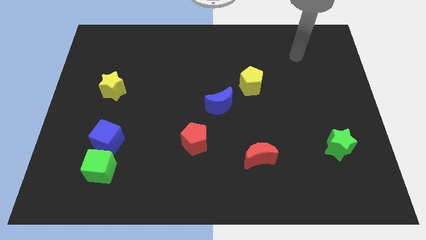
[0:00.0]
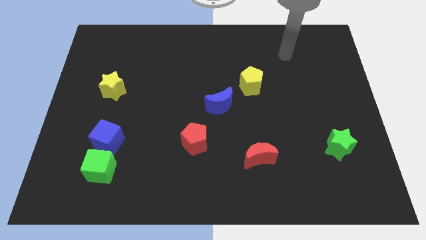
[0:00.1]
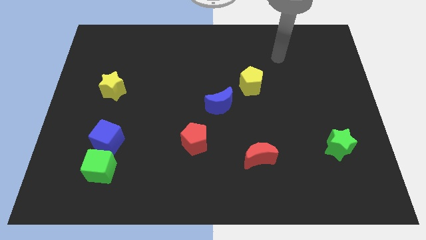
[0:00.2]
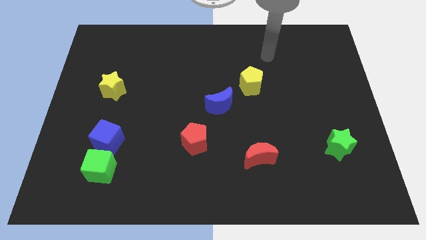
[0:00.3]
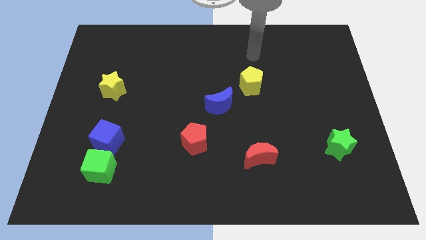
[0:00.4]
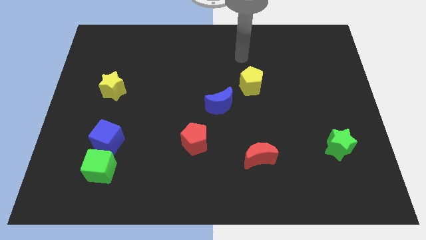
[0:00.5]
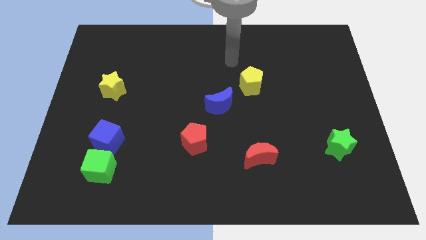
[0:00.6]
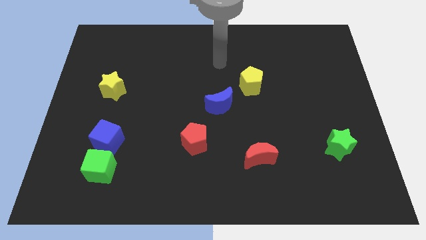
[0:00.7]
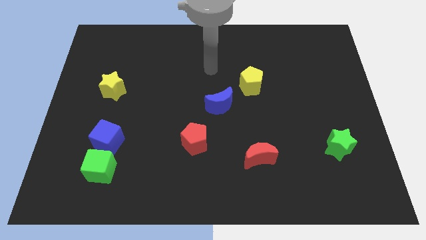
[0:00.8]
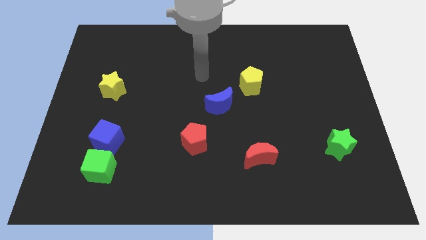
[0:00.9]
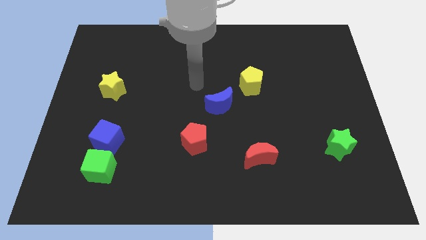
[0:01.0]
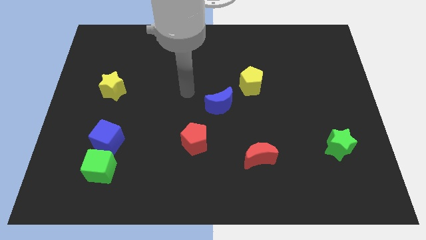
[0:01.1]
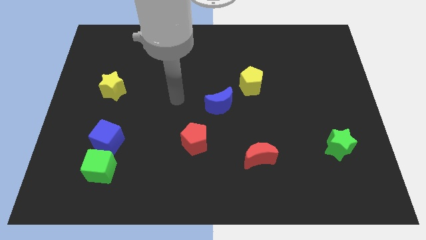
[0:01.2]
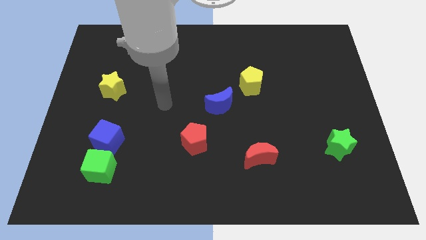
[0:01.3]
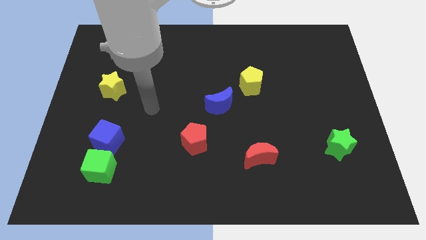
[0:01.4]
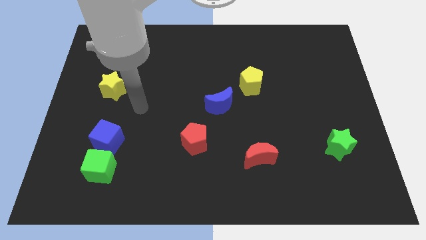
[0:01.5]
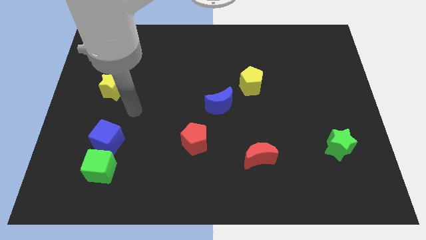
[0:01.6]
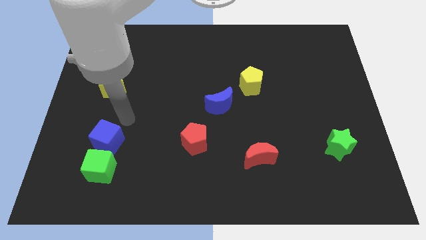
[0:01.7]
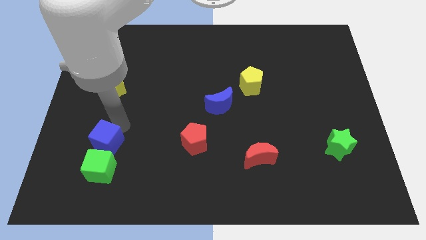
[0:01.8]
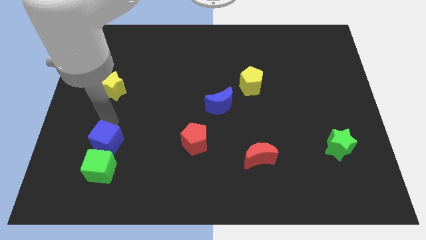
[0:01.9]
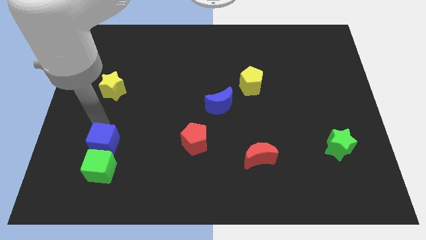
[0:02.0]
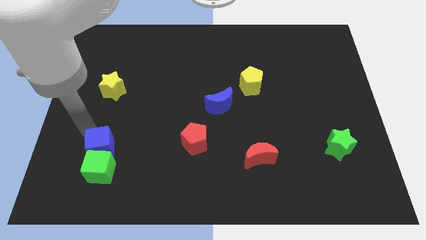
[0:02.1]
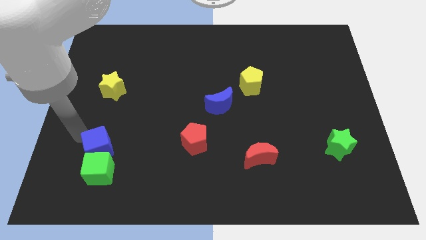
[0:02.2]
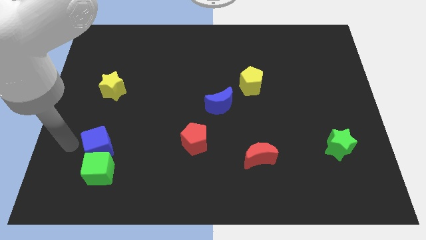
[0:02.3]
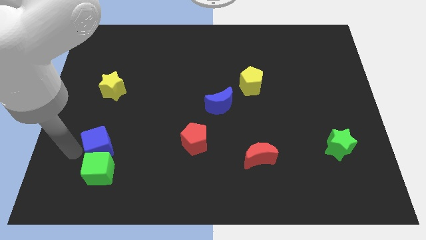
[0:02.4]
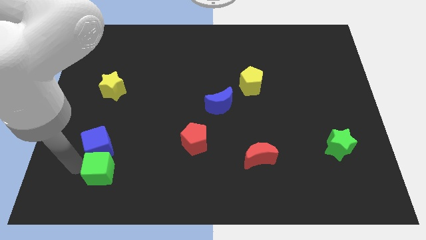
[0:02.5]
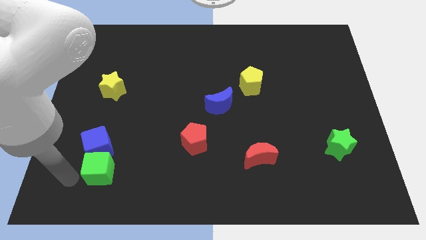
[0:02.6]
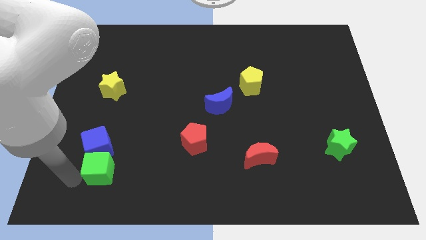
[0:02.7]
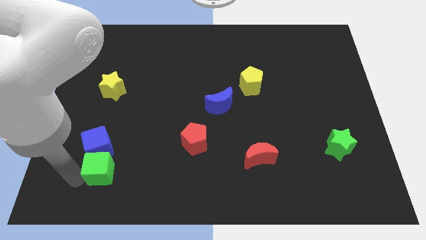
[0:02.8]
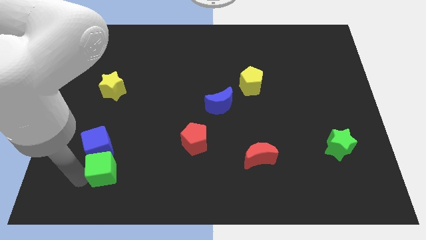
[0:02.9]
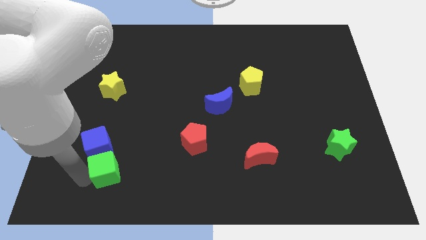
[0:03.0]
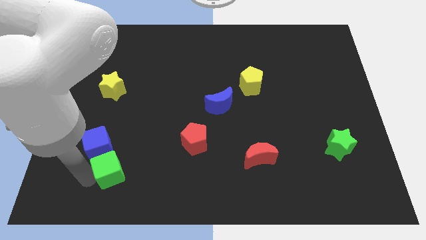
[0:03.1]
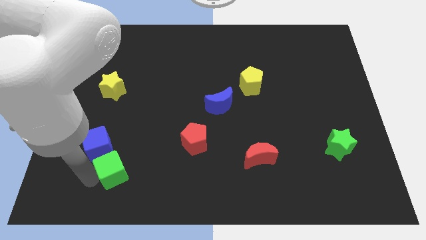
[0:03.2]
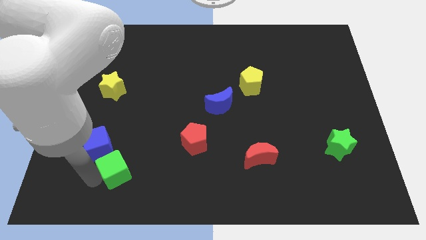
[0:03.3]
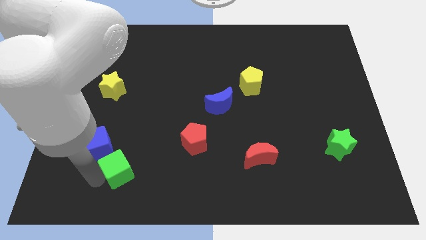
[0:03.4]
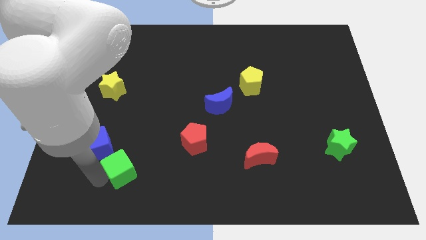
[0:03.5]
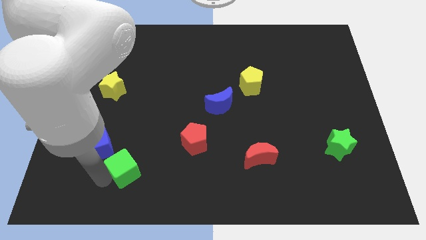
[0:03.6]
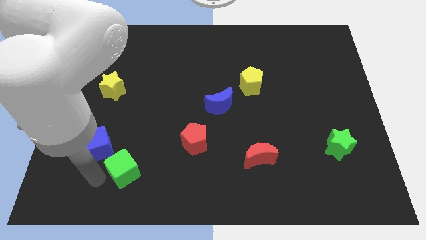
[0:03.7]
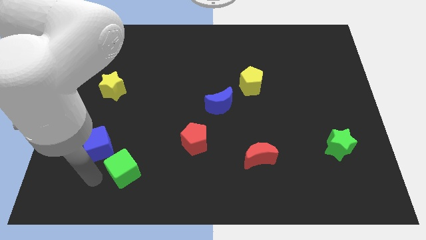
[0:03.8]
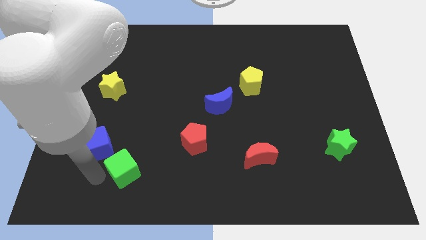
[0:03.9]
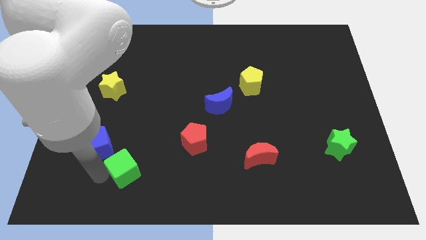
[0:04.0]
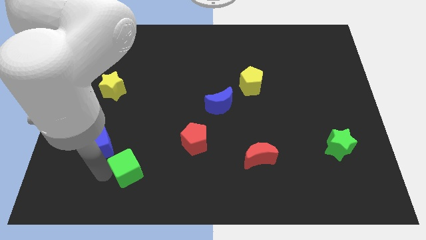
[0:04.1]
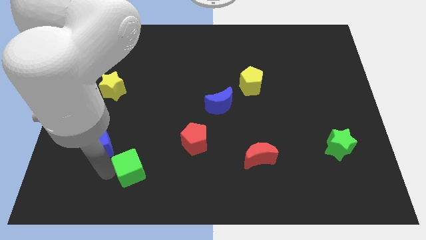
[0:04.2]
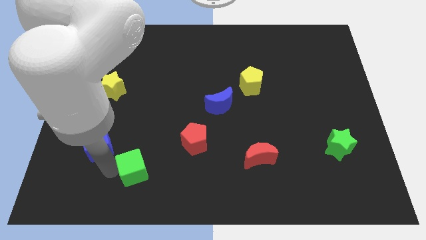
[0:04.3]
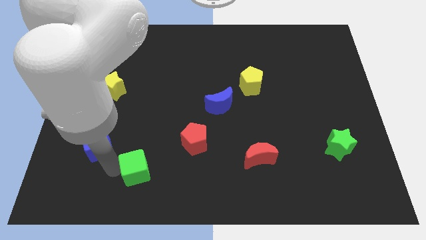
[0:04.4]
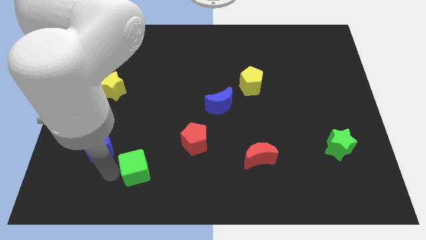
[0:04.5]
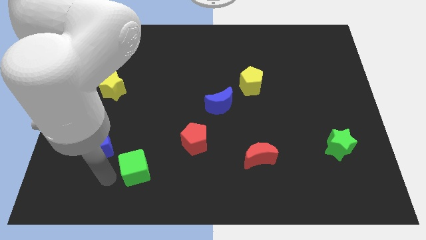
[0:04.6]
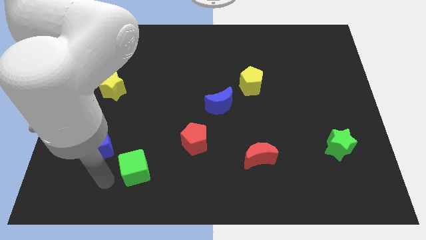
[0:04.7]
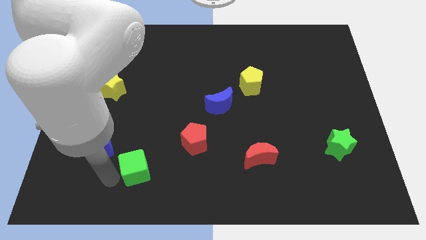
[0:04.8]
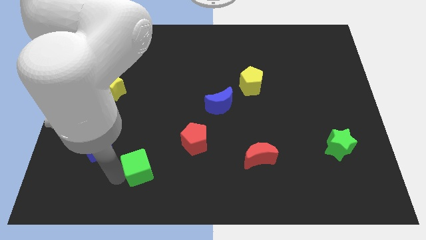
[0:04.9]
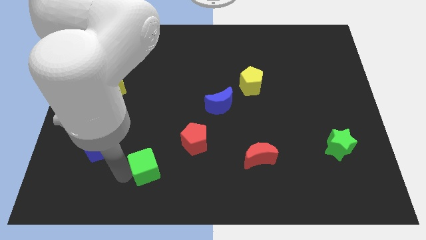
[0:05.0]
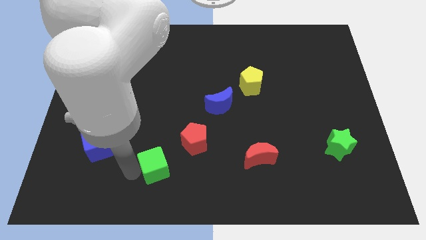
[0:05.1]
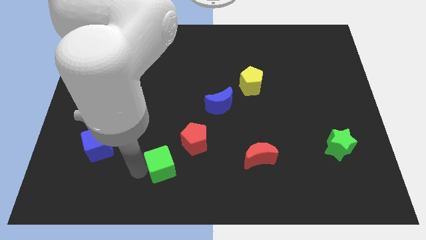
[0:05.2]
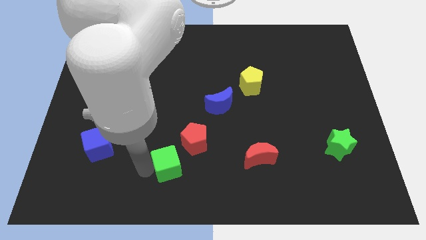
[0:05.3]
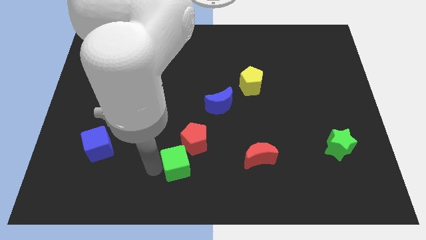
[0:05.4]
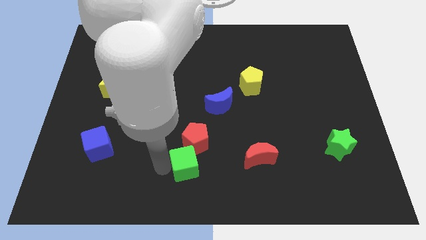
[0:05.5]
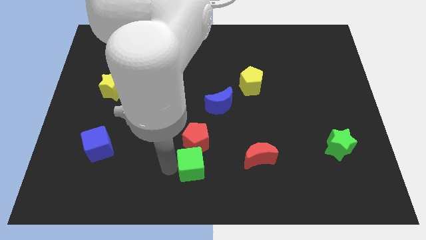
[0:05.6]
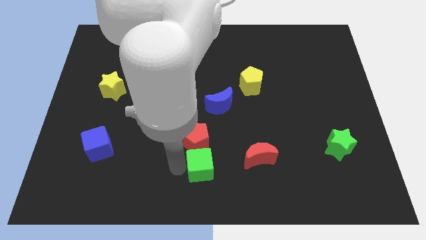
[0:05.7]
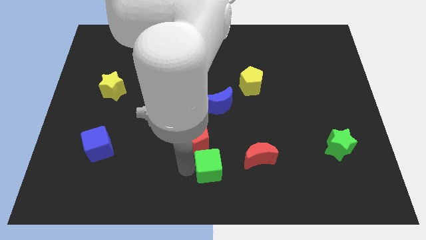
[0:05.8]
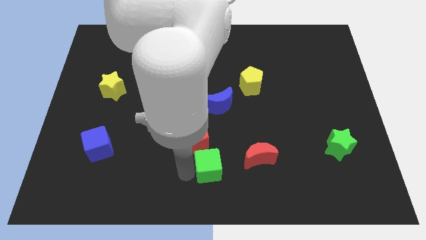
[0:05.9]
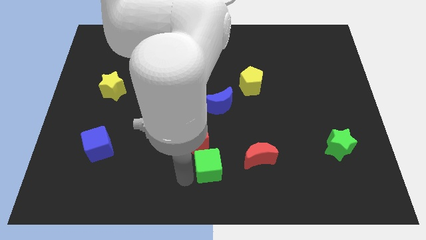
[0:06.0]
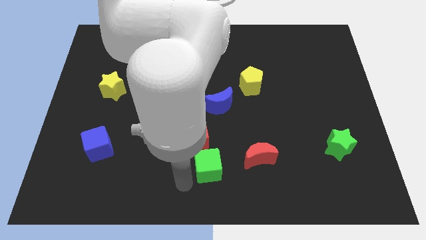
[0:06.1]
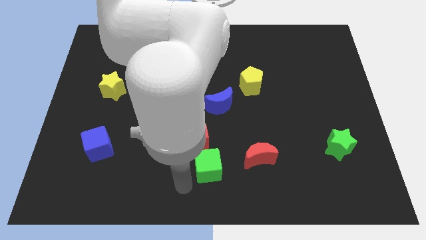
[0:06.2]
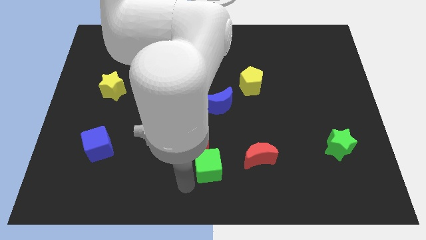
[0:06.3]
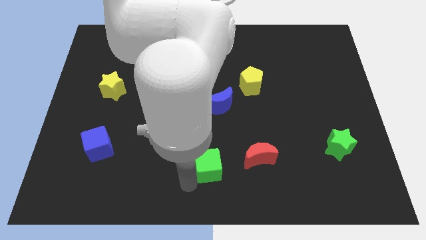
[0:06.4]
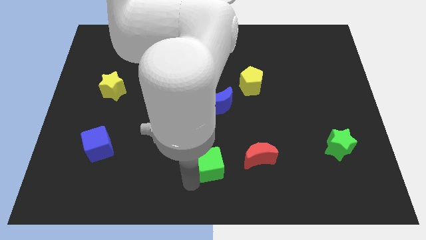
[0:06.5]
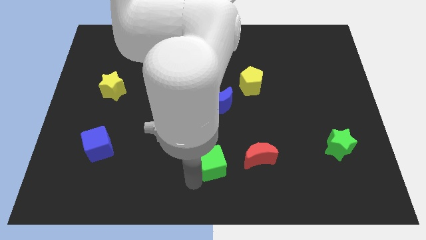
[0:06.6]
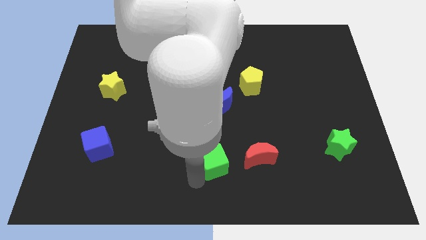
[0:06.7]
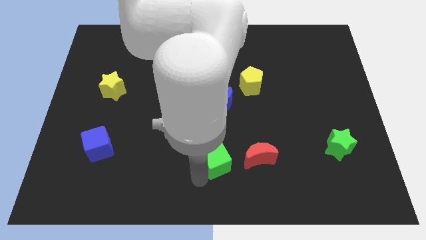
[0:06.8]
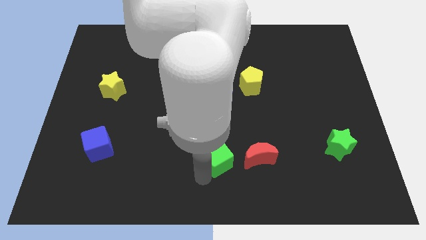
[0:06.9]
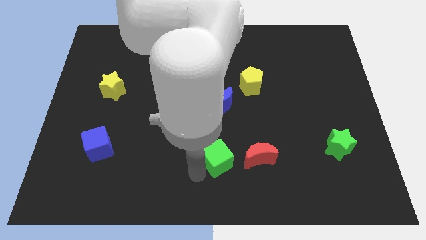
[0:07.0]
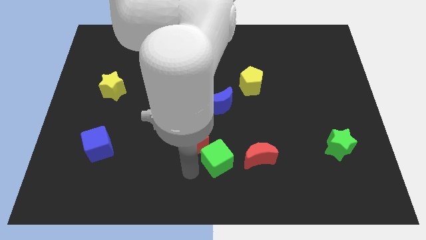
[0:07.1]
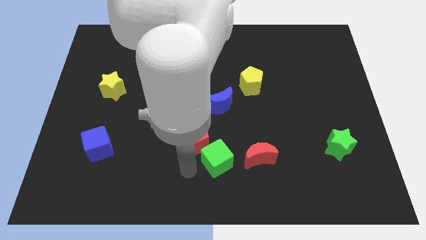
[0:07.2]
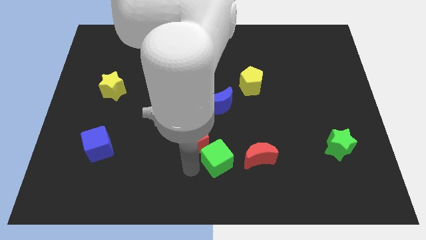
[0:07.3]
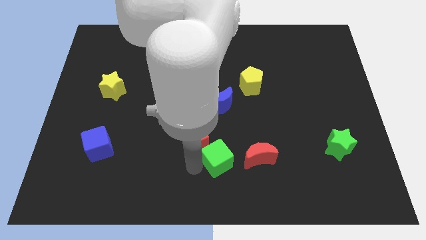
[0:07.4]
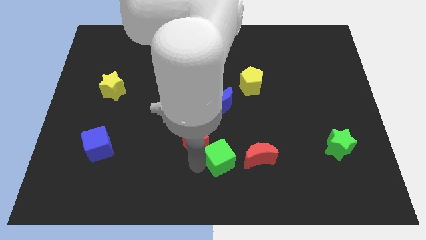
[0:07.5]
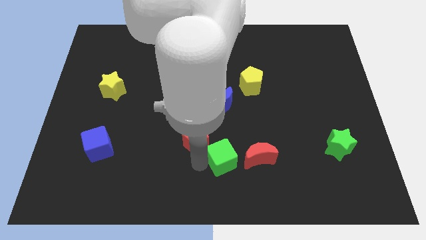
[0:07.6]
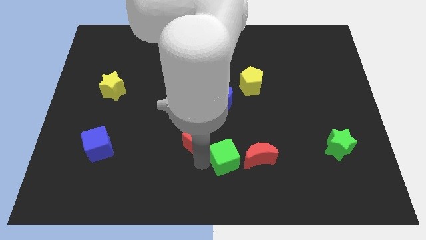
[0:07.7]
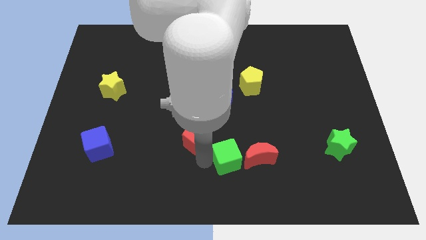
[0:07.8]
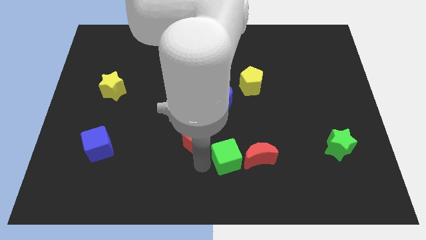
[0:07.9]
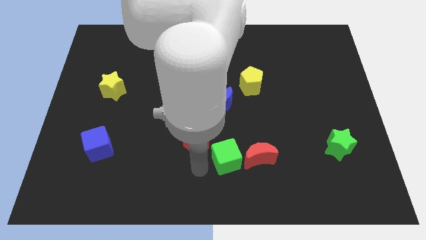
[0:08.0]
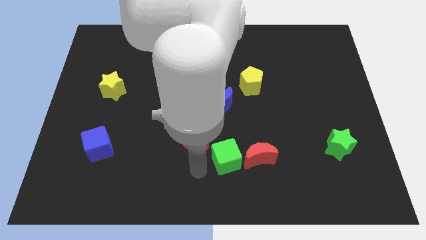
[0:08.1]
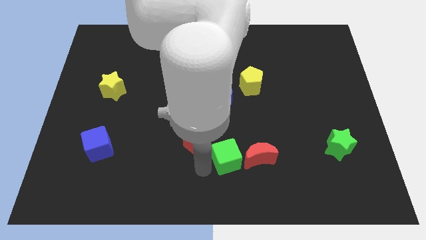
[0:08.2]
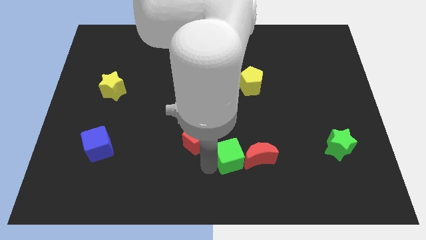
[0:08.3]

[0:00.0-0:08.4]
move the green cube towards the red moon
